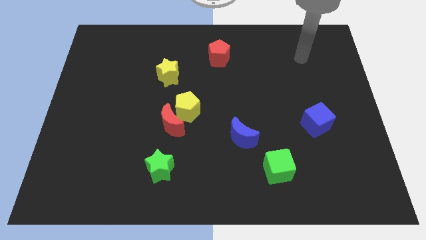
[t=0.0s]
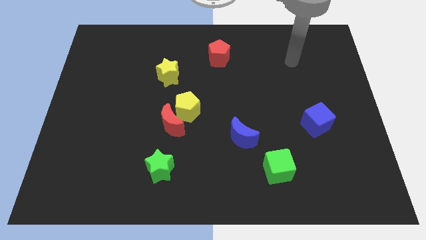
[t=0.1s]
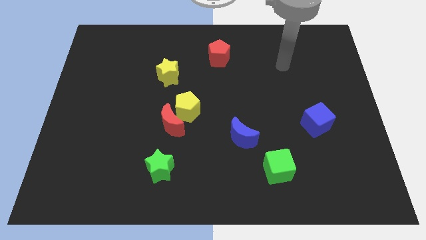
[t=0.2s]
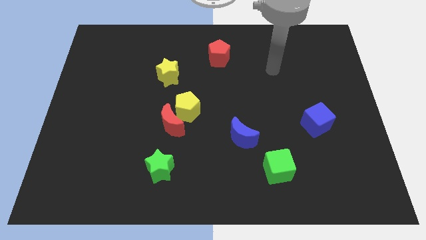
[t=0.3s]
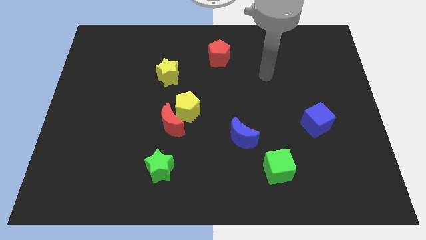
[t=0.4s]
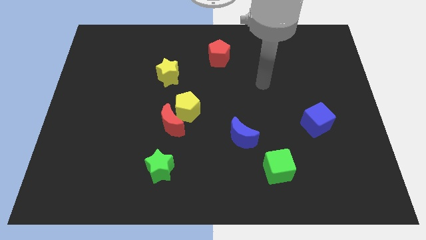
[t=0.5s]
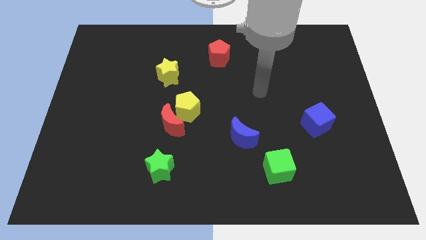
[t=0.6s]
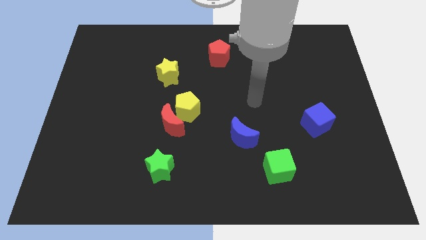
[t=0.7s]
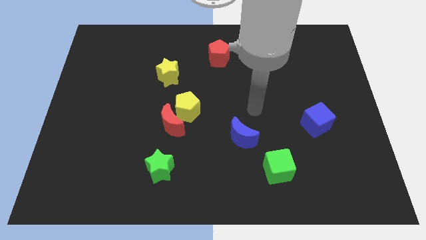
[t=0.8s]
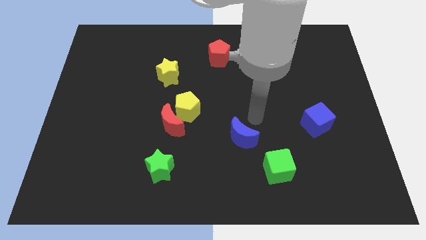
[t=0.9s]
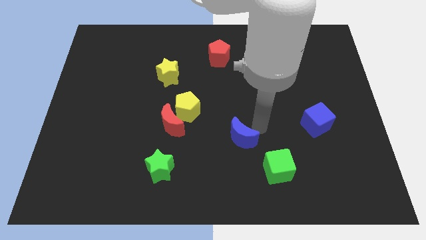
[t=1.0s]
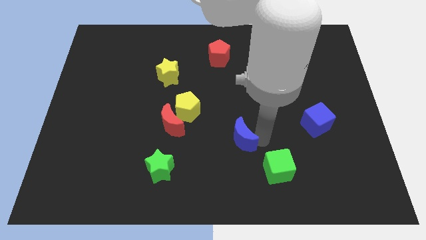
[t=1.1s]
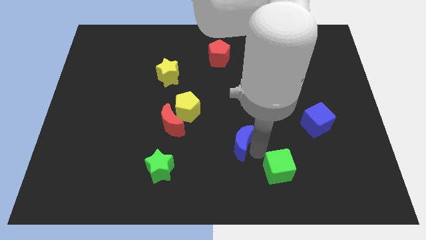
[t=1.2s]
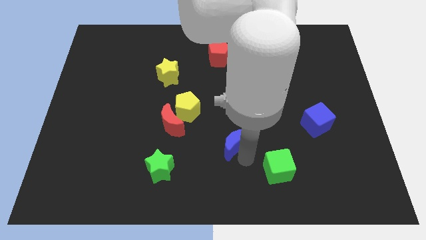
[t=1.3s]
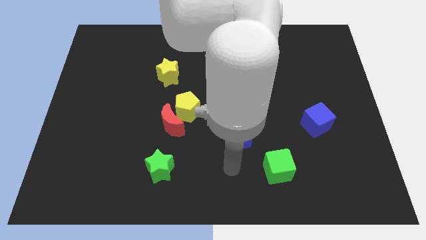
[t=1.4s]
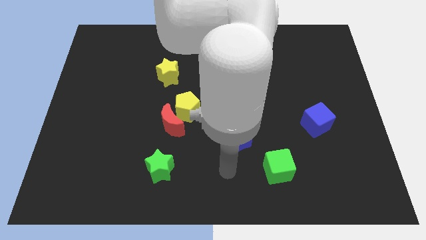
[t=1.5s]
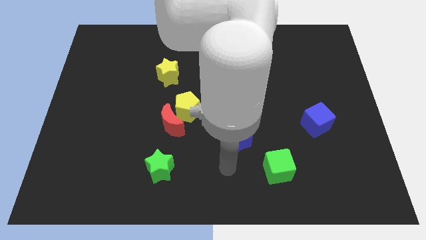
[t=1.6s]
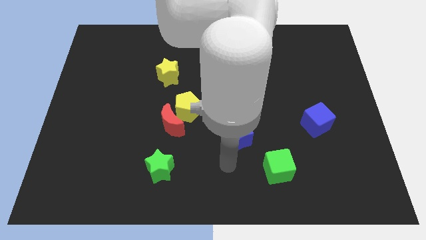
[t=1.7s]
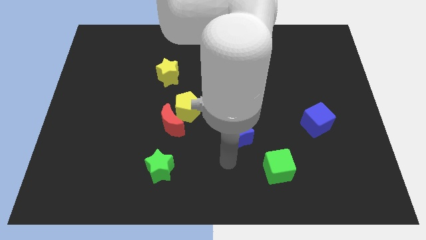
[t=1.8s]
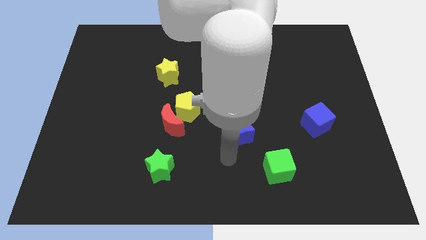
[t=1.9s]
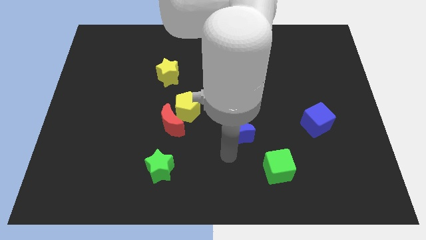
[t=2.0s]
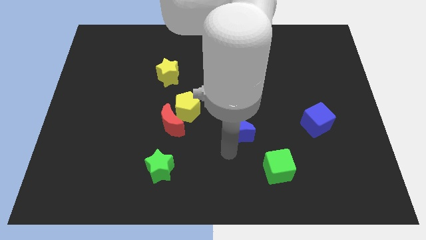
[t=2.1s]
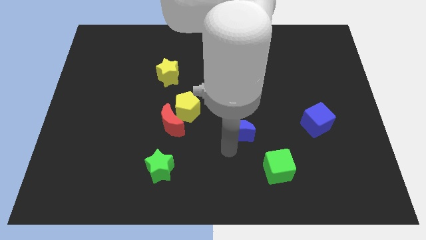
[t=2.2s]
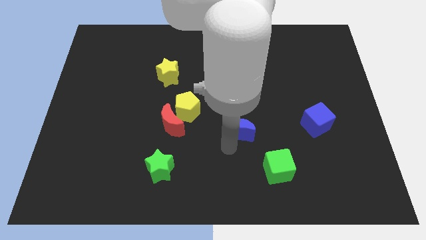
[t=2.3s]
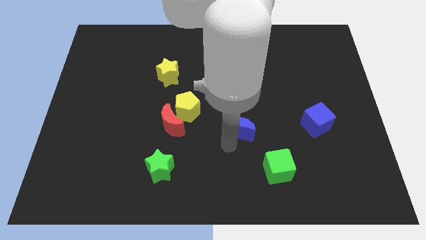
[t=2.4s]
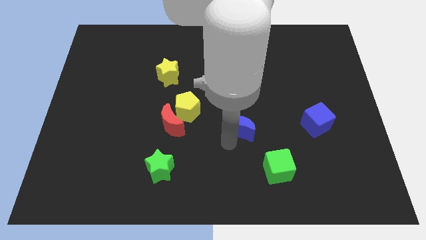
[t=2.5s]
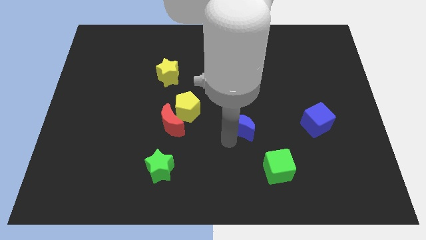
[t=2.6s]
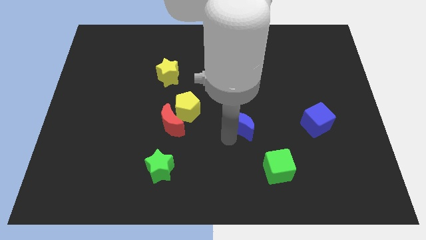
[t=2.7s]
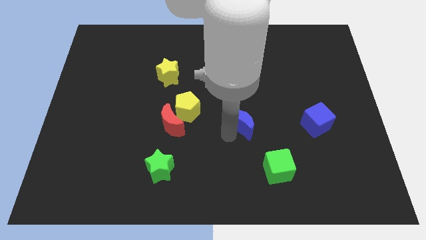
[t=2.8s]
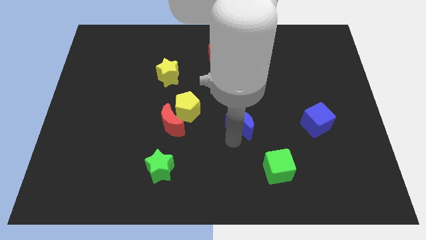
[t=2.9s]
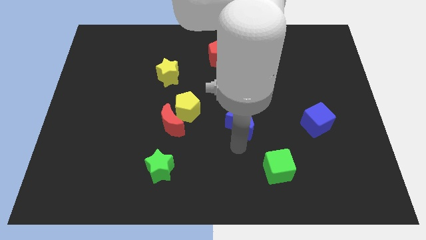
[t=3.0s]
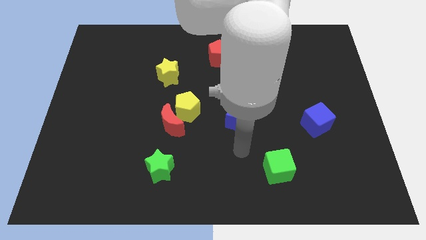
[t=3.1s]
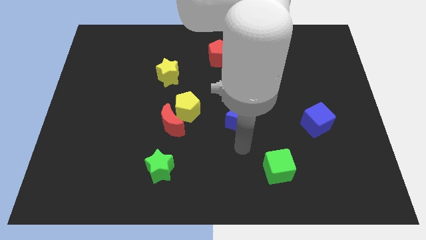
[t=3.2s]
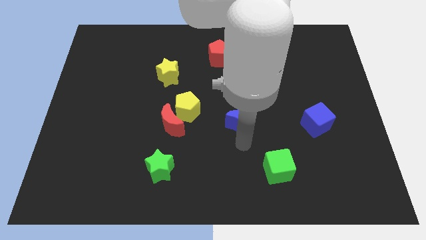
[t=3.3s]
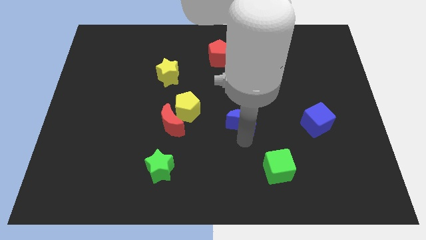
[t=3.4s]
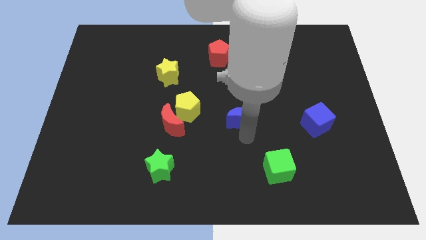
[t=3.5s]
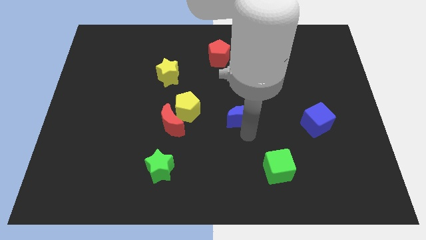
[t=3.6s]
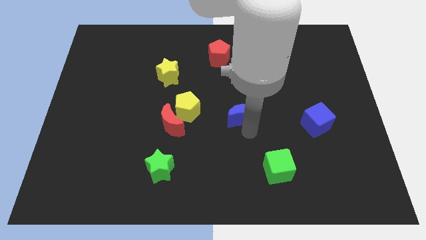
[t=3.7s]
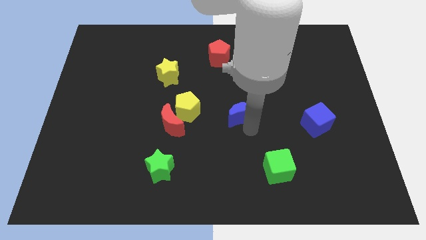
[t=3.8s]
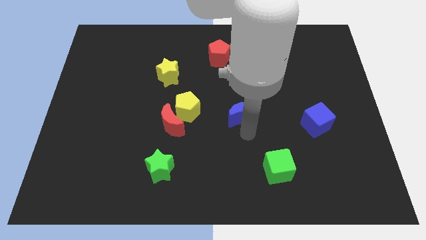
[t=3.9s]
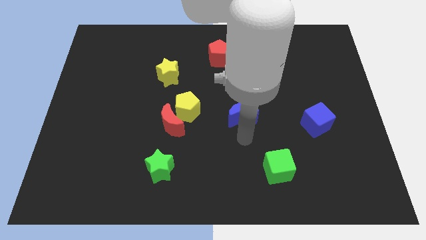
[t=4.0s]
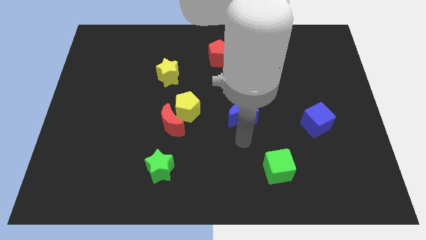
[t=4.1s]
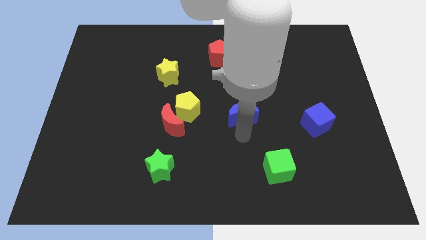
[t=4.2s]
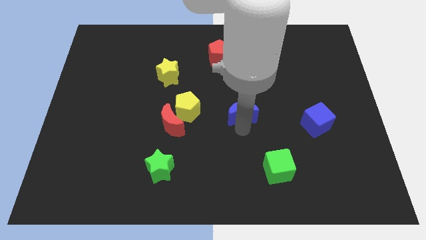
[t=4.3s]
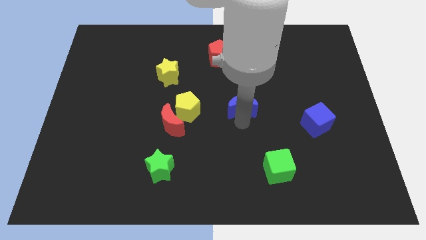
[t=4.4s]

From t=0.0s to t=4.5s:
move the blue moon up a little bit

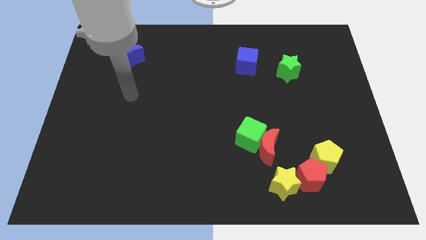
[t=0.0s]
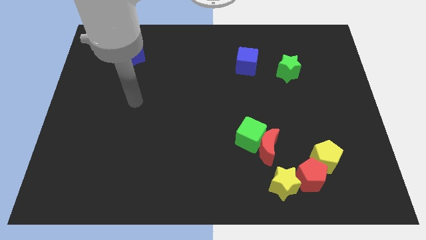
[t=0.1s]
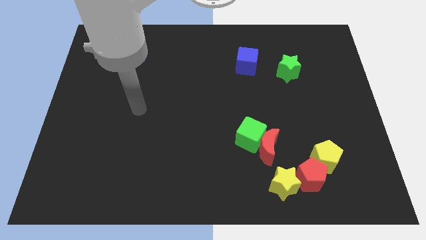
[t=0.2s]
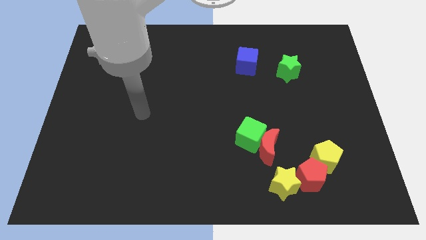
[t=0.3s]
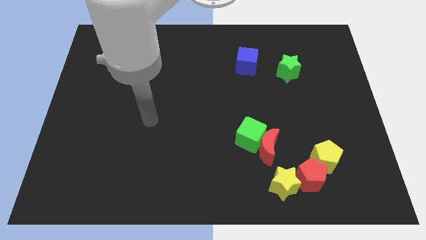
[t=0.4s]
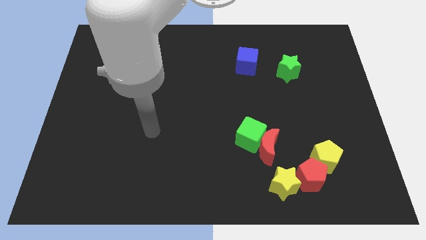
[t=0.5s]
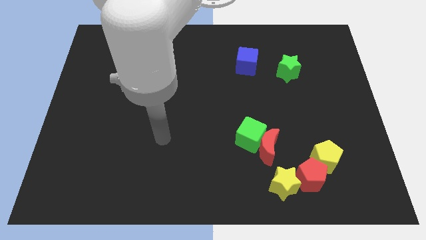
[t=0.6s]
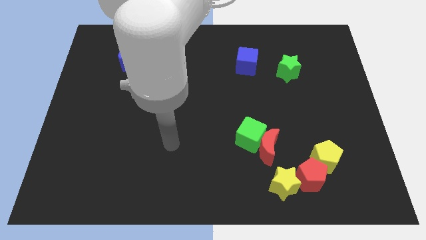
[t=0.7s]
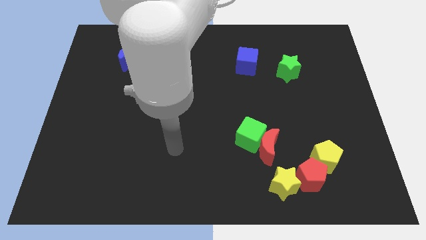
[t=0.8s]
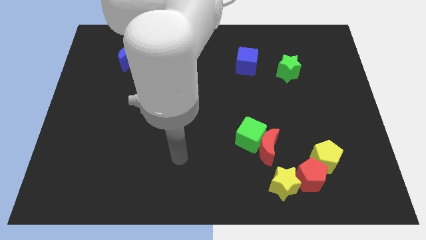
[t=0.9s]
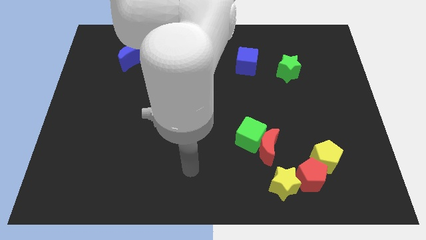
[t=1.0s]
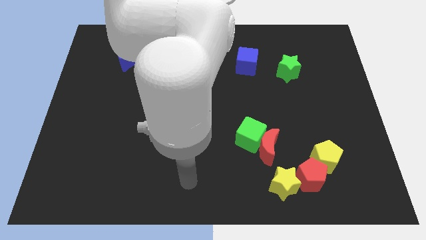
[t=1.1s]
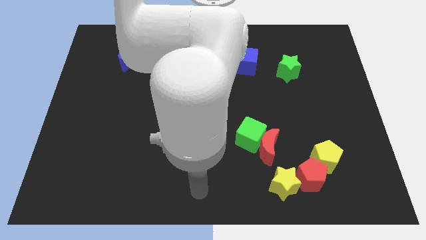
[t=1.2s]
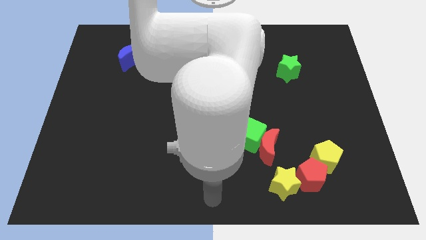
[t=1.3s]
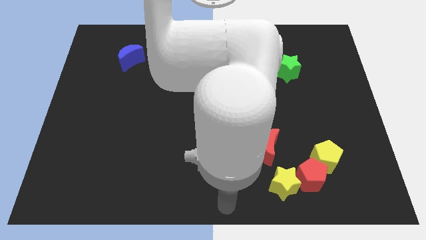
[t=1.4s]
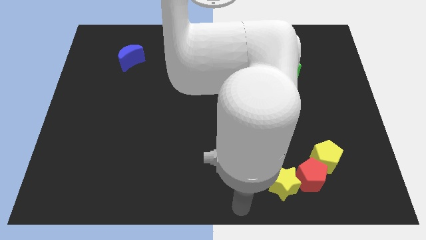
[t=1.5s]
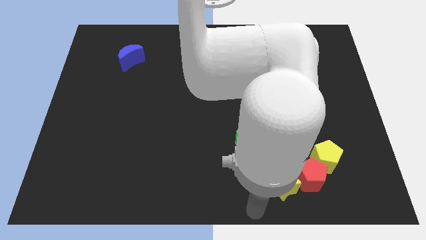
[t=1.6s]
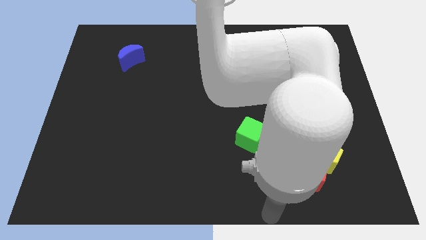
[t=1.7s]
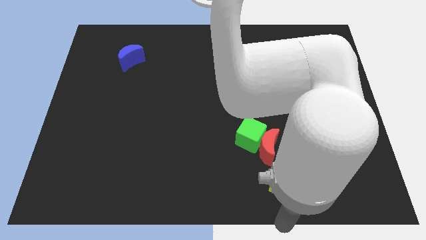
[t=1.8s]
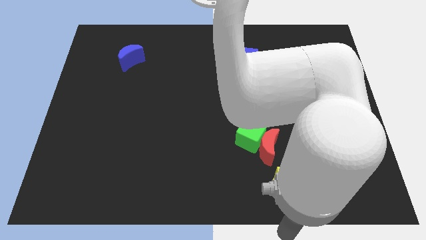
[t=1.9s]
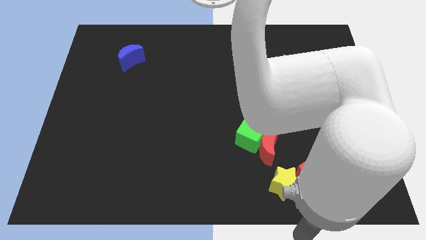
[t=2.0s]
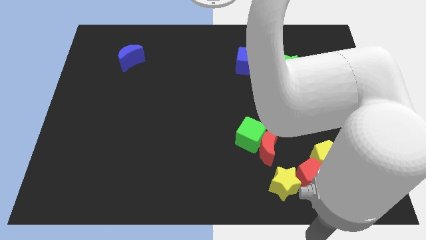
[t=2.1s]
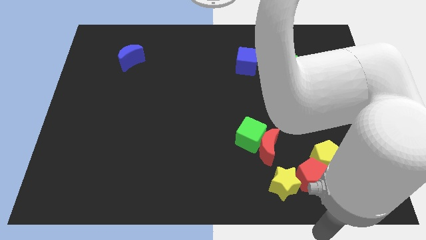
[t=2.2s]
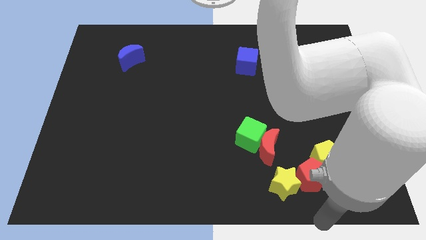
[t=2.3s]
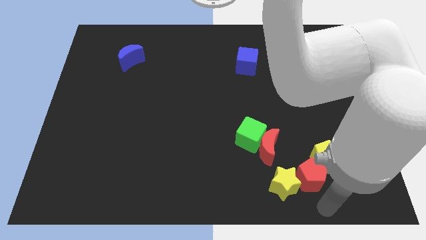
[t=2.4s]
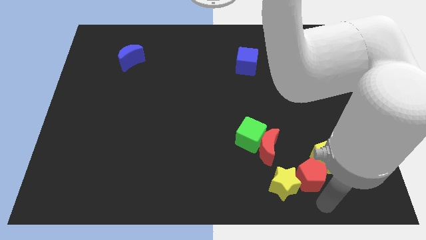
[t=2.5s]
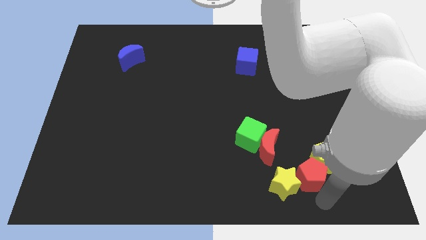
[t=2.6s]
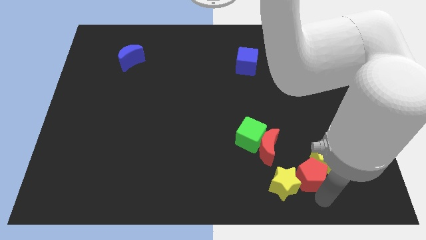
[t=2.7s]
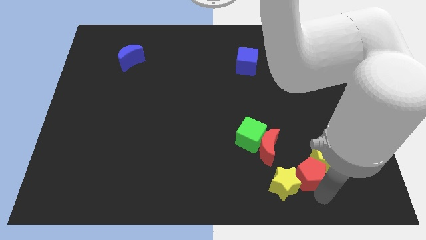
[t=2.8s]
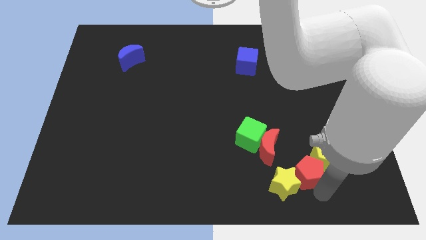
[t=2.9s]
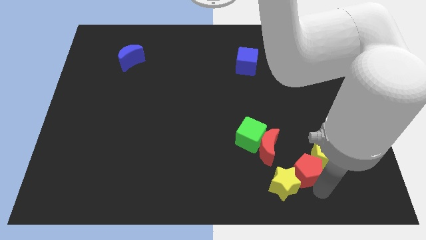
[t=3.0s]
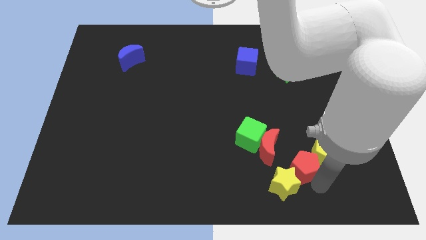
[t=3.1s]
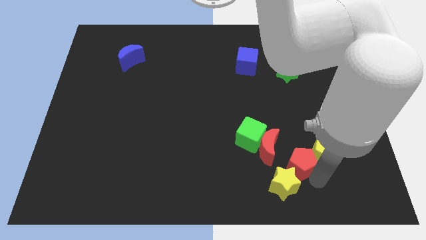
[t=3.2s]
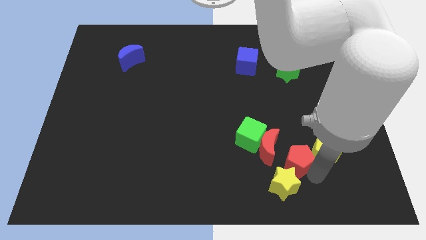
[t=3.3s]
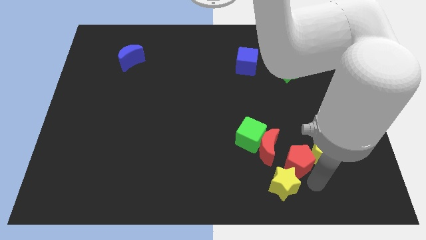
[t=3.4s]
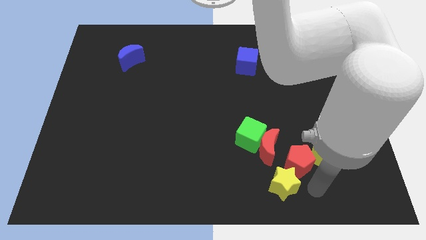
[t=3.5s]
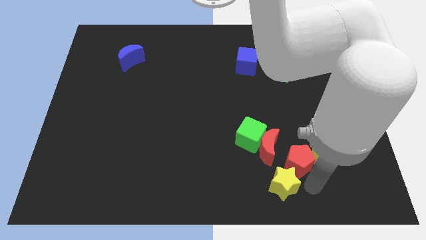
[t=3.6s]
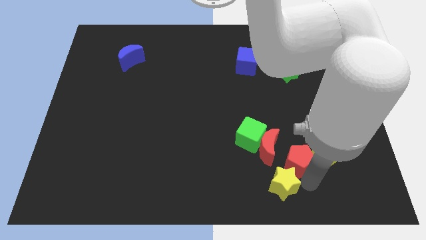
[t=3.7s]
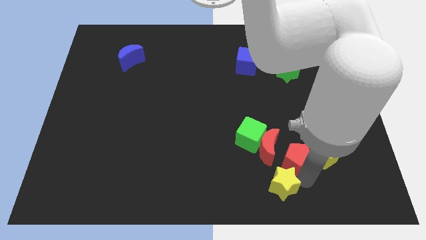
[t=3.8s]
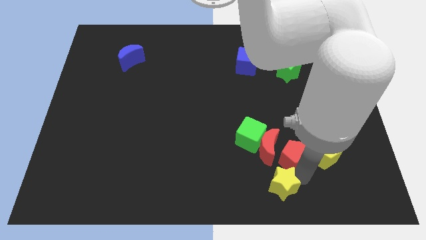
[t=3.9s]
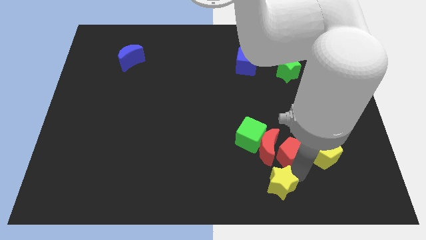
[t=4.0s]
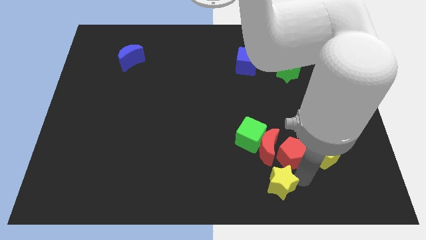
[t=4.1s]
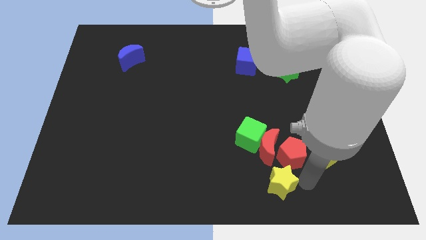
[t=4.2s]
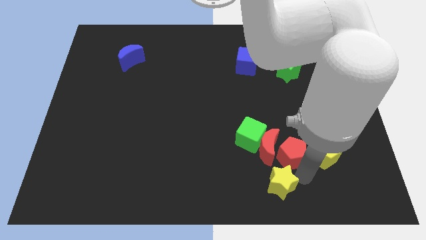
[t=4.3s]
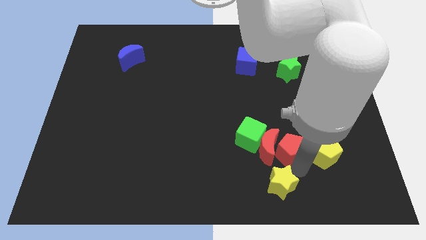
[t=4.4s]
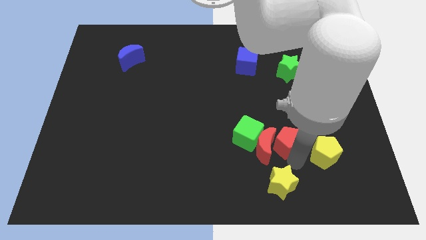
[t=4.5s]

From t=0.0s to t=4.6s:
slightly slide the red pentagon upwards and then to the left
